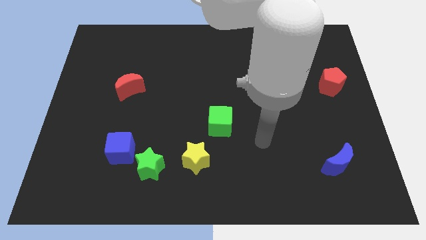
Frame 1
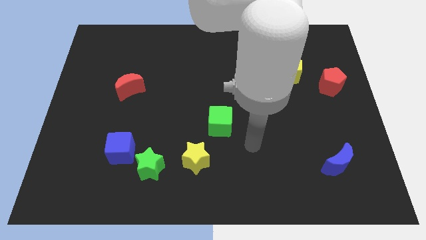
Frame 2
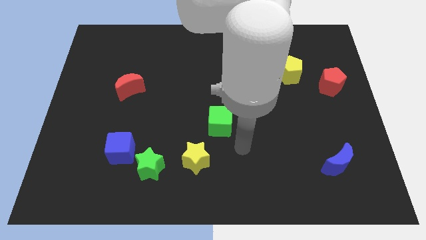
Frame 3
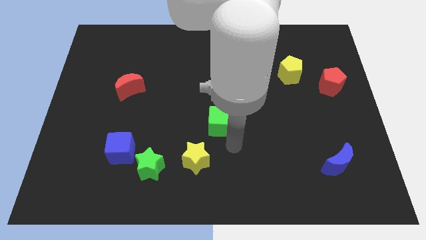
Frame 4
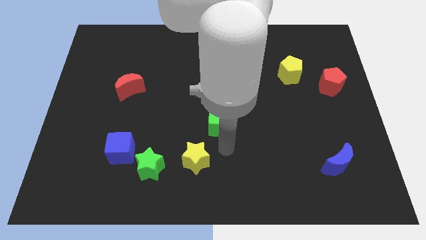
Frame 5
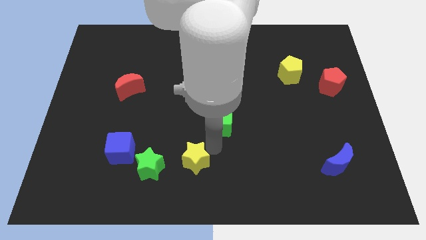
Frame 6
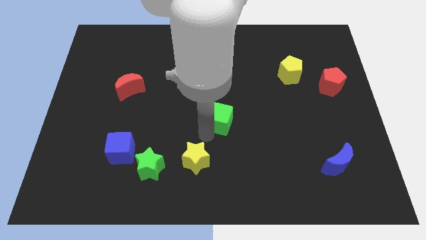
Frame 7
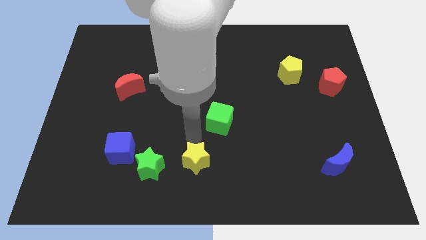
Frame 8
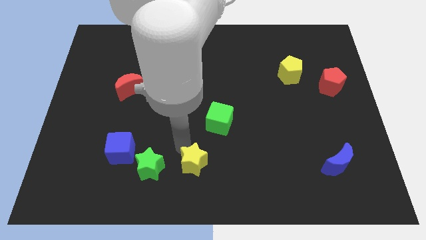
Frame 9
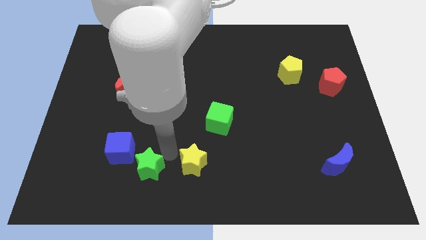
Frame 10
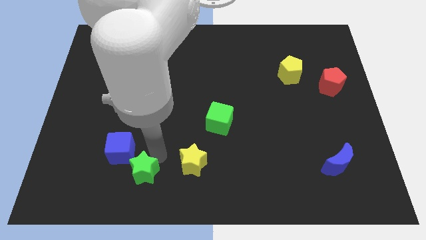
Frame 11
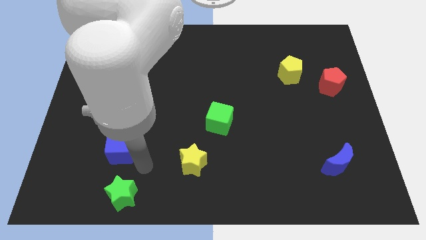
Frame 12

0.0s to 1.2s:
separate the blue cube from the green star

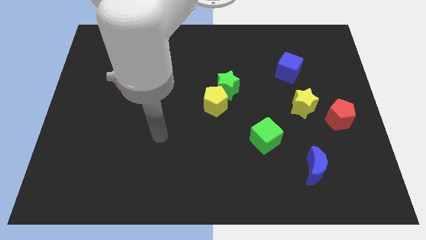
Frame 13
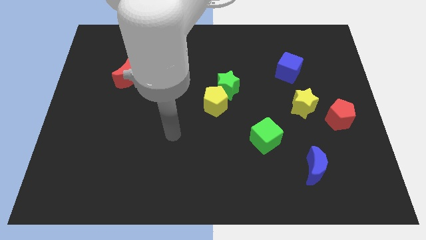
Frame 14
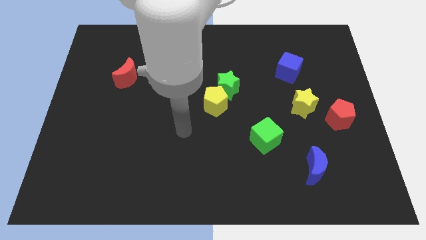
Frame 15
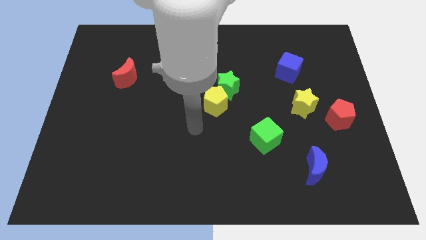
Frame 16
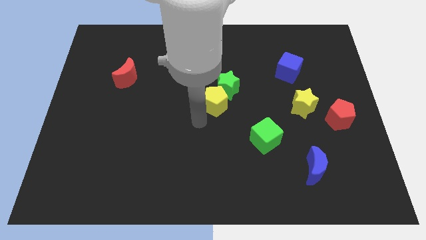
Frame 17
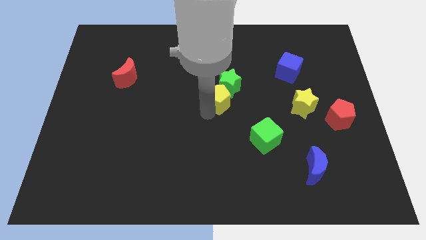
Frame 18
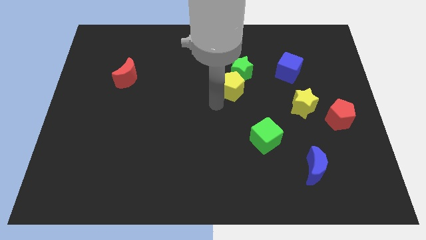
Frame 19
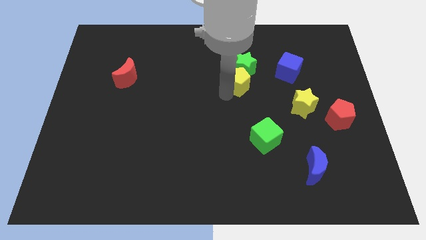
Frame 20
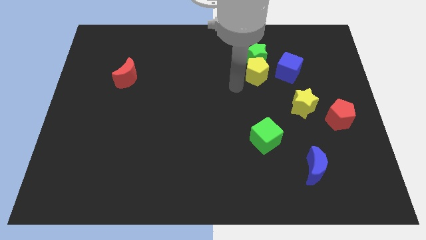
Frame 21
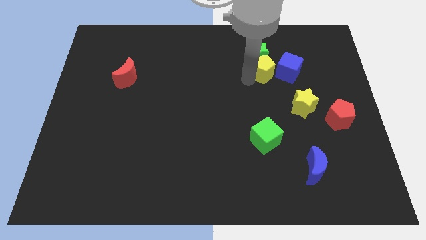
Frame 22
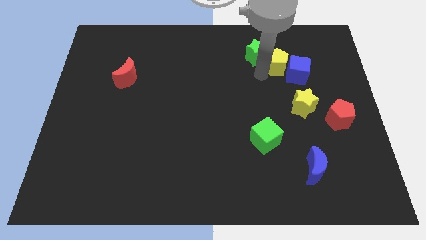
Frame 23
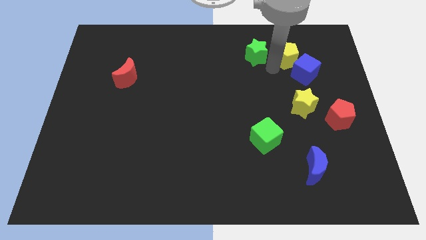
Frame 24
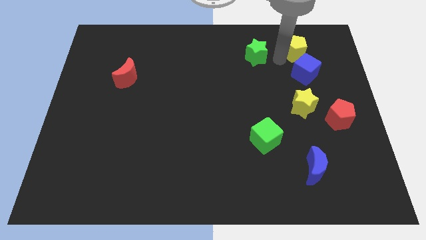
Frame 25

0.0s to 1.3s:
separate the green star from the yellow pentagon

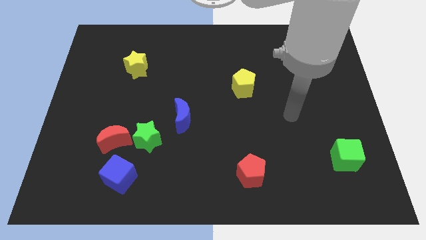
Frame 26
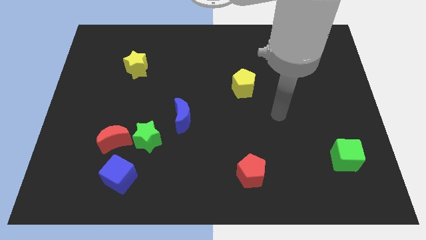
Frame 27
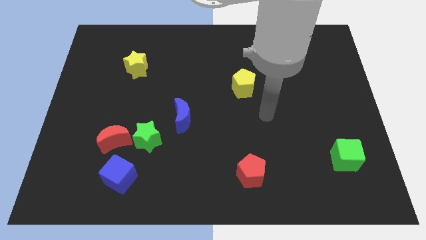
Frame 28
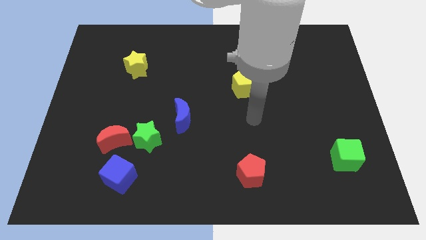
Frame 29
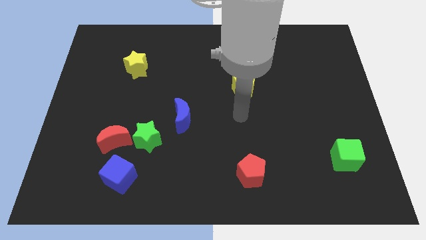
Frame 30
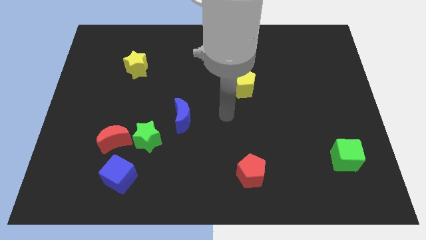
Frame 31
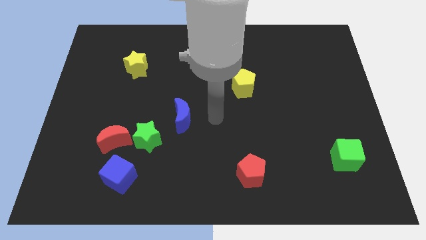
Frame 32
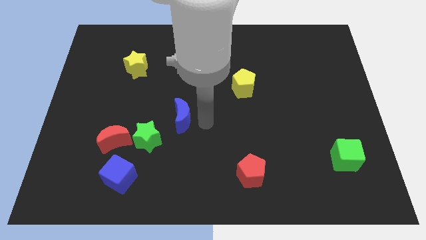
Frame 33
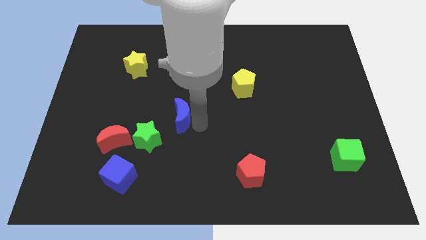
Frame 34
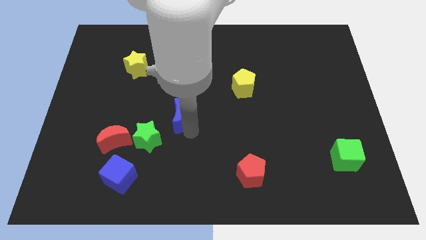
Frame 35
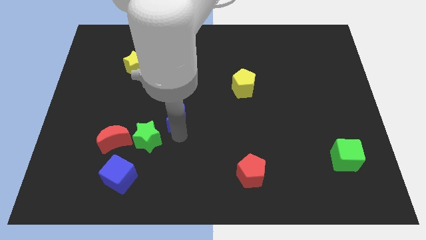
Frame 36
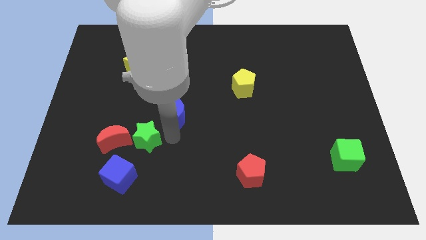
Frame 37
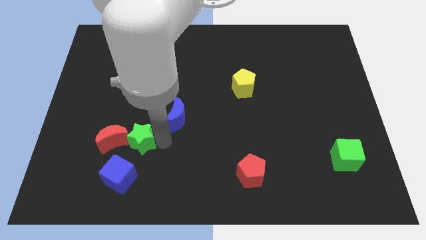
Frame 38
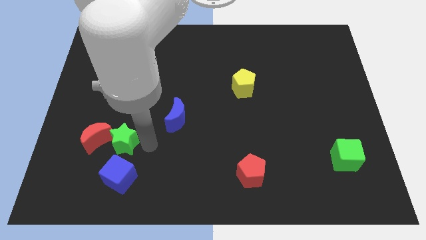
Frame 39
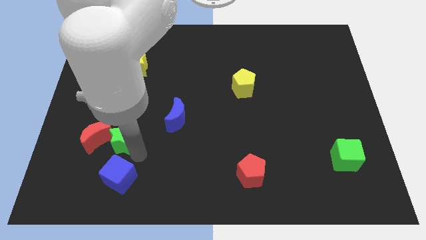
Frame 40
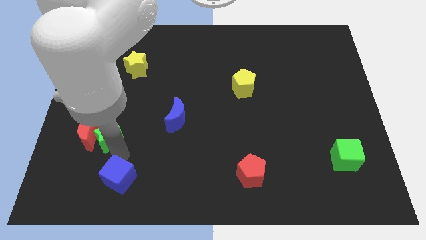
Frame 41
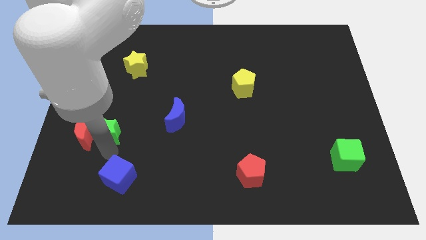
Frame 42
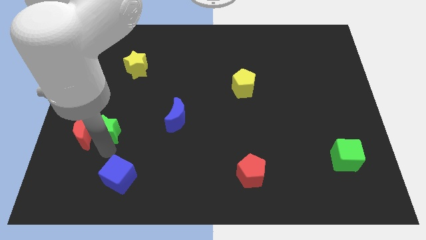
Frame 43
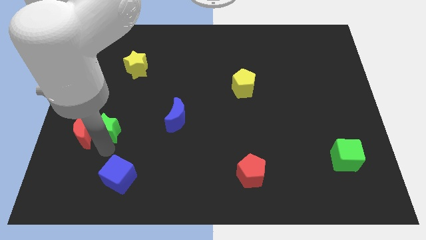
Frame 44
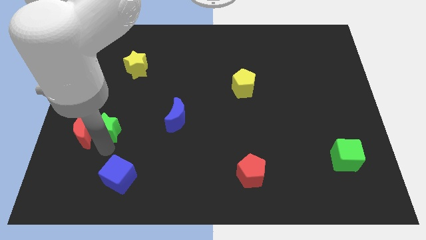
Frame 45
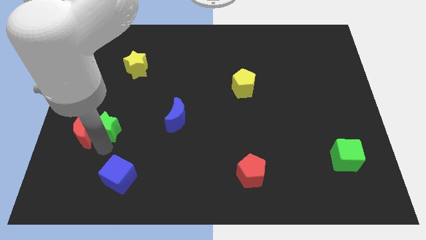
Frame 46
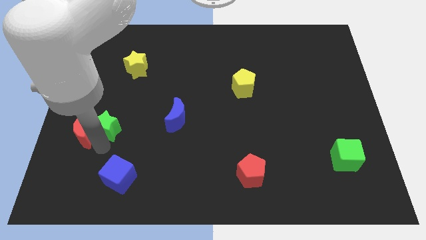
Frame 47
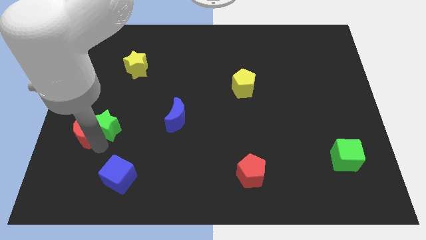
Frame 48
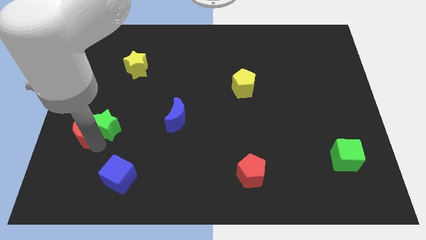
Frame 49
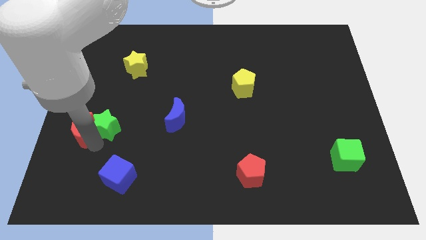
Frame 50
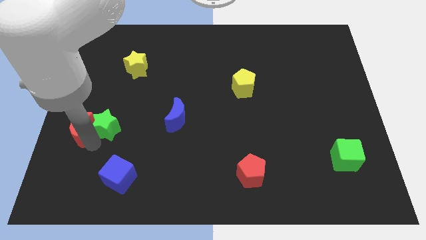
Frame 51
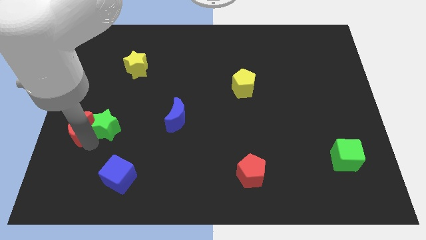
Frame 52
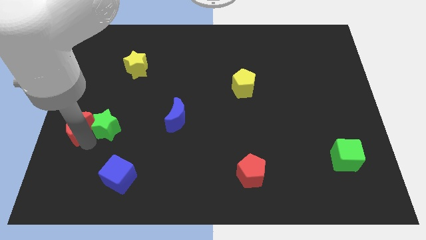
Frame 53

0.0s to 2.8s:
separate the red moon from the green star and blue cube

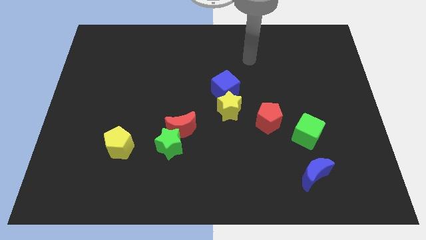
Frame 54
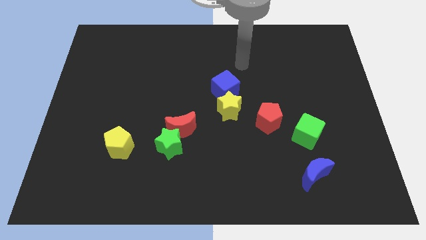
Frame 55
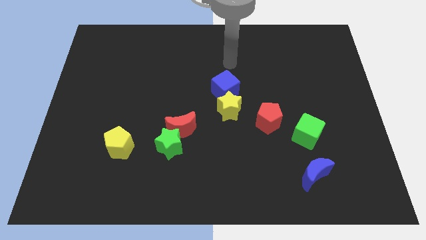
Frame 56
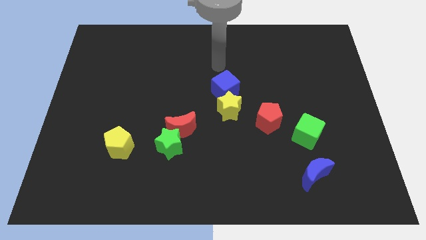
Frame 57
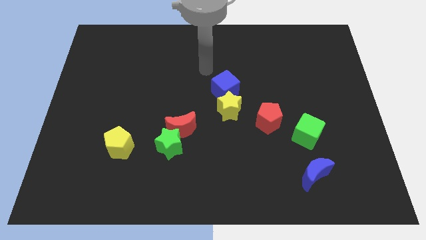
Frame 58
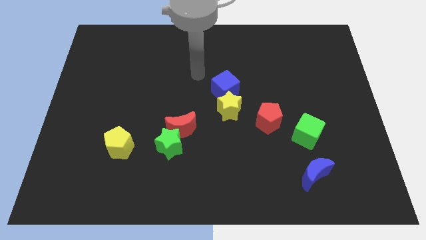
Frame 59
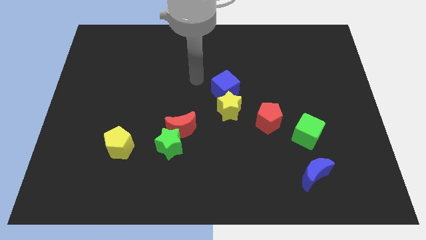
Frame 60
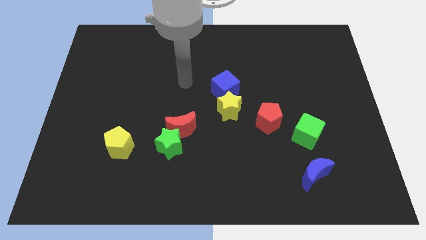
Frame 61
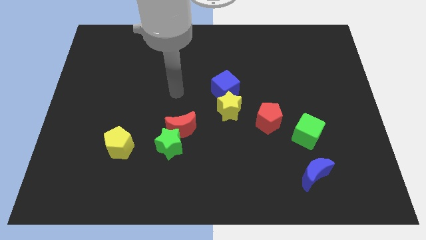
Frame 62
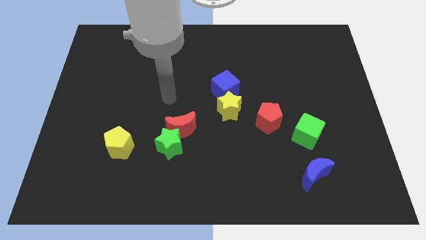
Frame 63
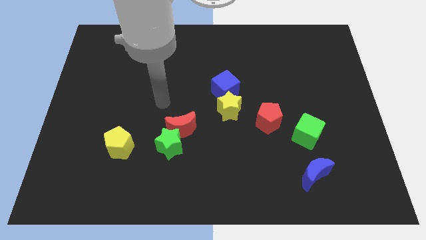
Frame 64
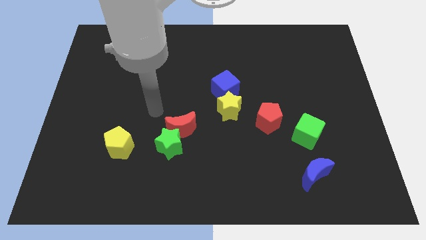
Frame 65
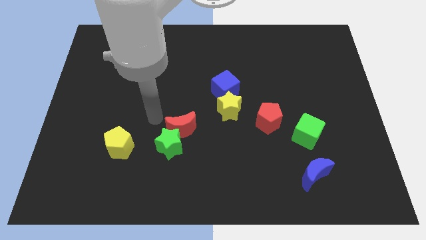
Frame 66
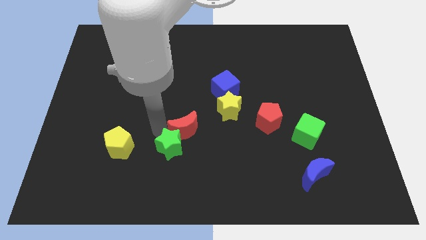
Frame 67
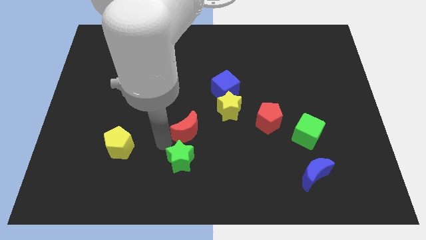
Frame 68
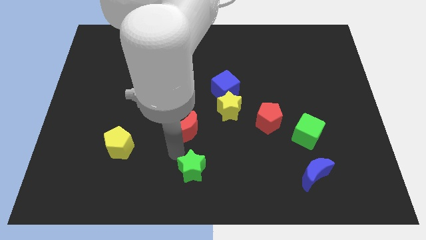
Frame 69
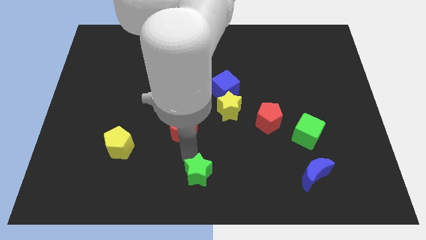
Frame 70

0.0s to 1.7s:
separate the red moon from the green star

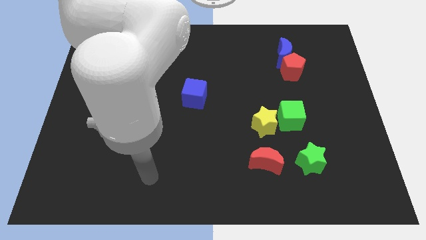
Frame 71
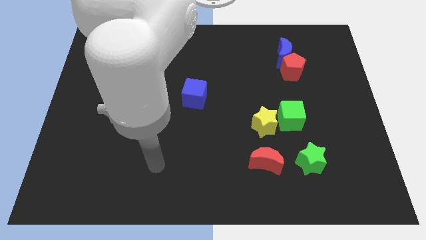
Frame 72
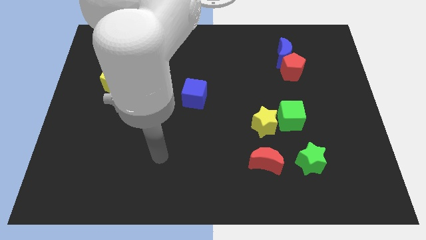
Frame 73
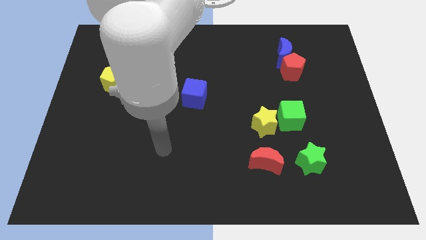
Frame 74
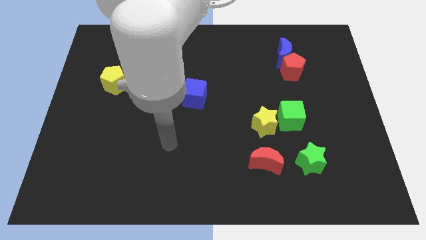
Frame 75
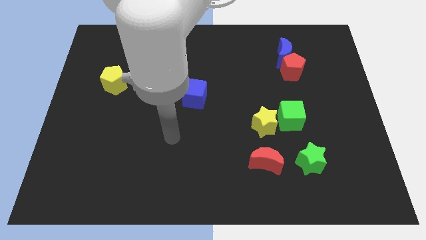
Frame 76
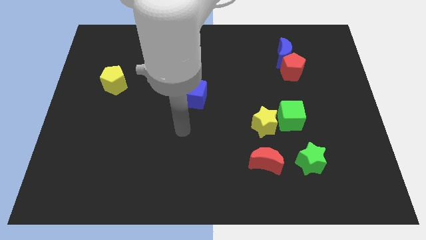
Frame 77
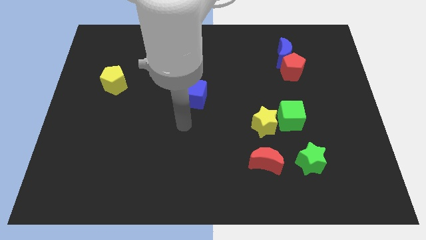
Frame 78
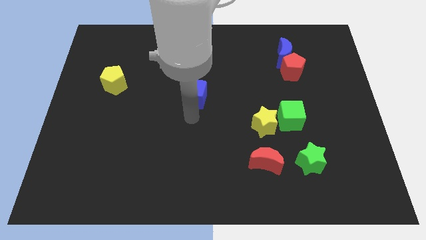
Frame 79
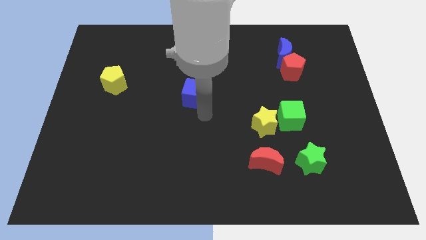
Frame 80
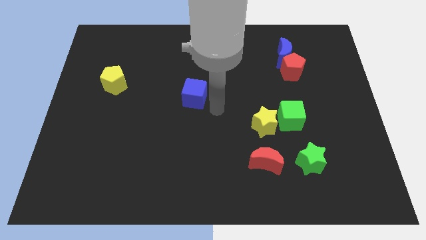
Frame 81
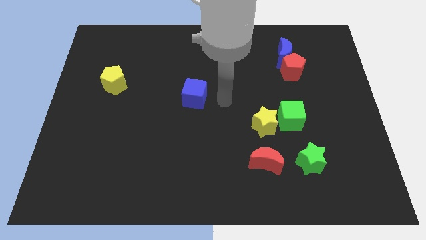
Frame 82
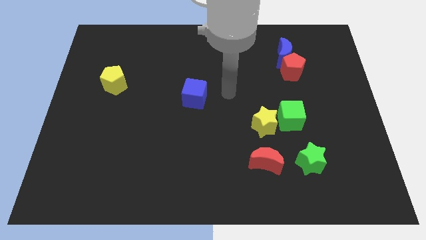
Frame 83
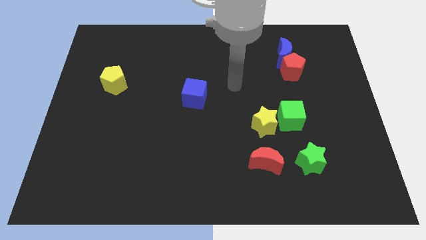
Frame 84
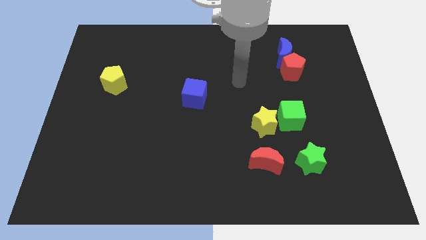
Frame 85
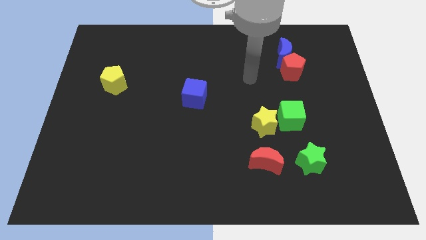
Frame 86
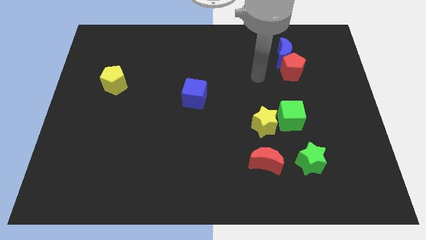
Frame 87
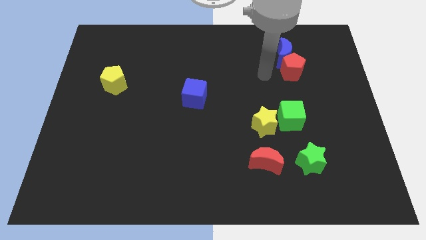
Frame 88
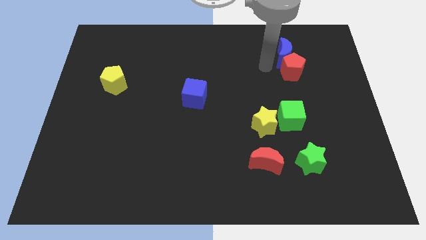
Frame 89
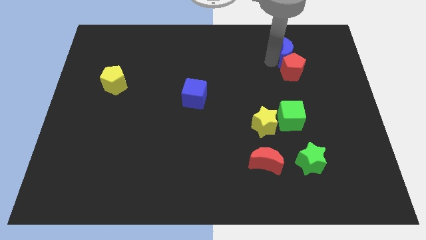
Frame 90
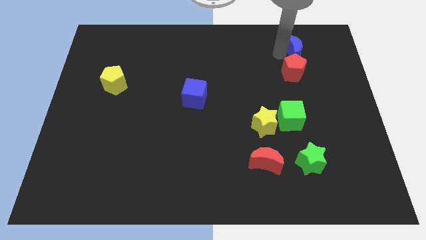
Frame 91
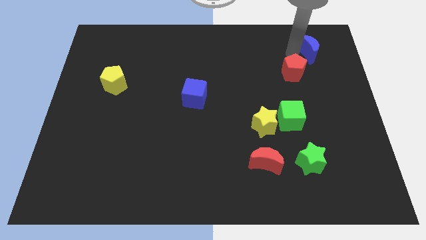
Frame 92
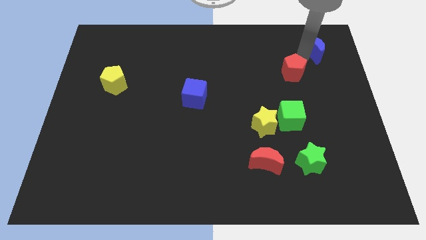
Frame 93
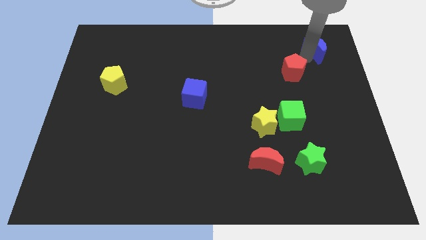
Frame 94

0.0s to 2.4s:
pull the red pentagon apart from the blue moon
